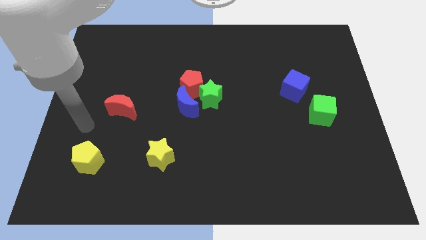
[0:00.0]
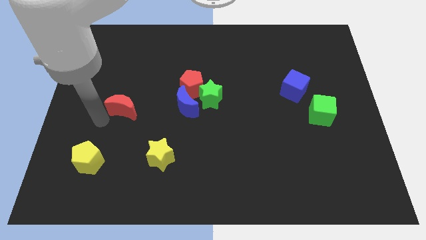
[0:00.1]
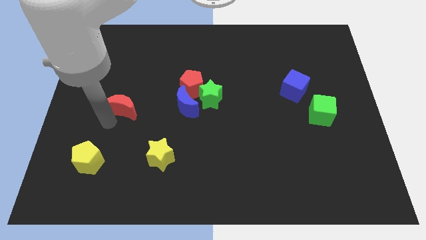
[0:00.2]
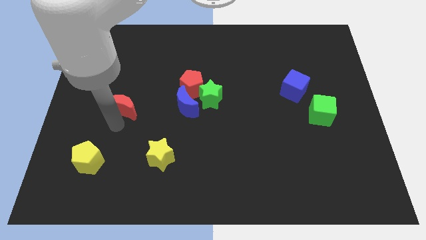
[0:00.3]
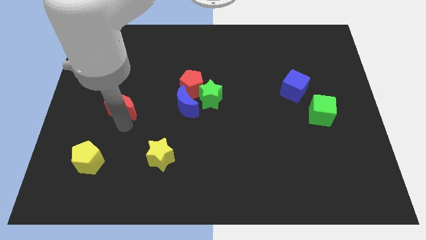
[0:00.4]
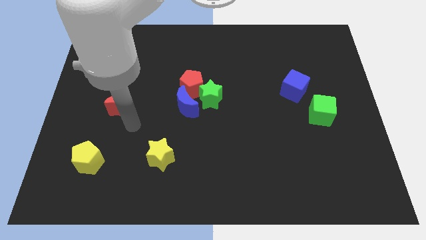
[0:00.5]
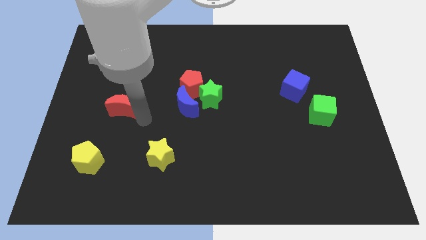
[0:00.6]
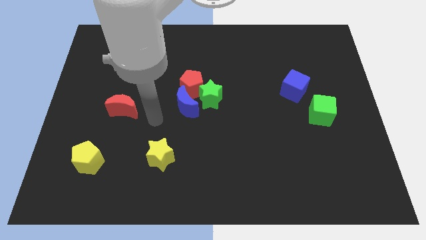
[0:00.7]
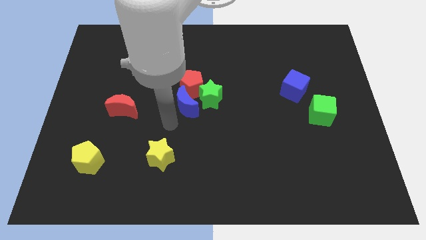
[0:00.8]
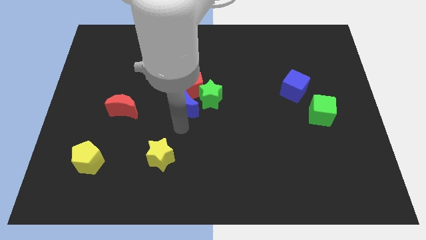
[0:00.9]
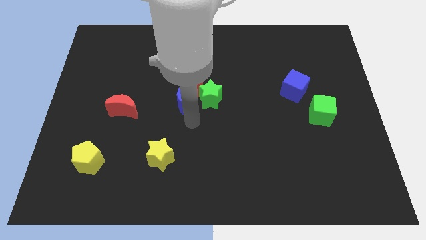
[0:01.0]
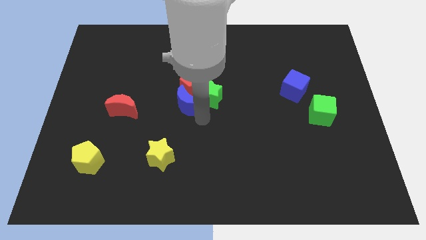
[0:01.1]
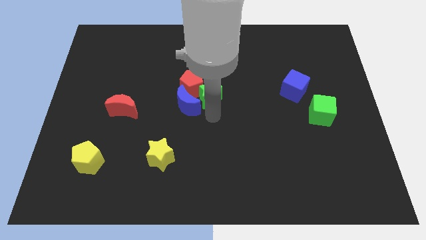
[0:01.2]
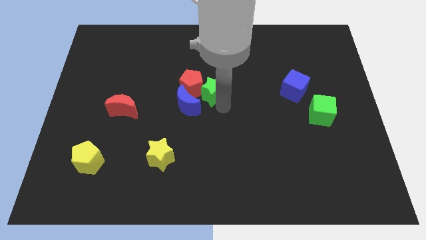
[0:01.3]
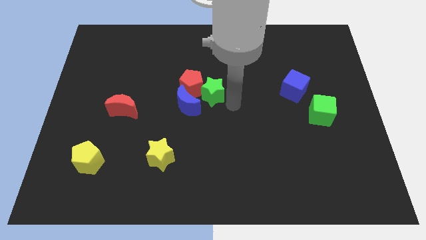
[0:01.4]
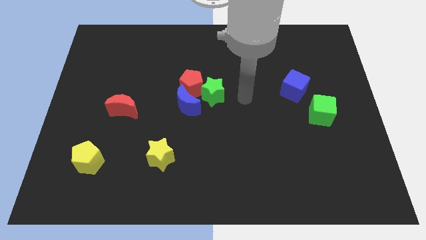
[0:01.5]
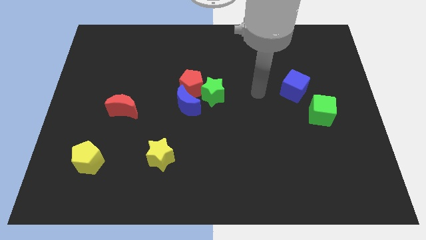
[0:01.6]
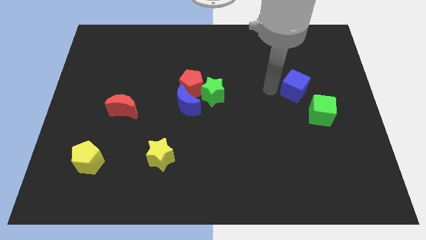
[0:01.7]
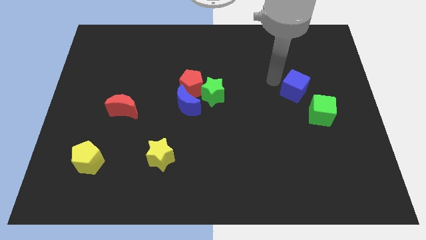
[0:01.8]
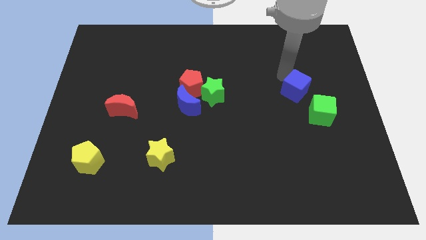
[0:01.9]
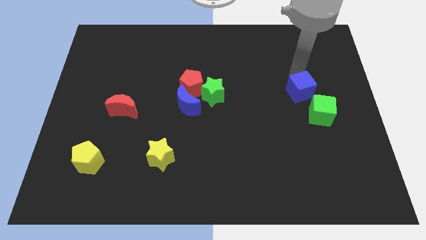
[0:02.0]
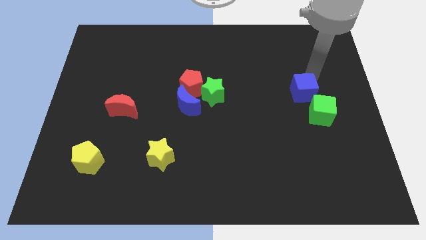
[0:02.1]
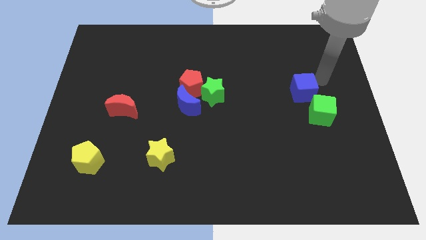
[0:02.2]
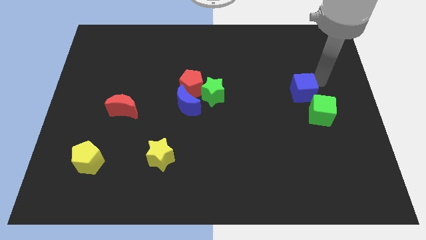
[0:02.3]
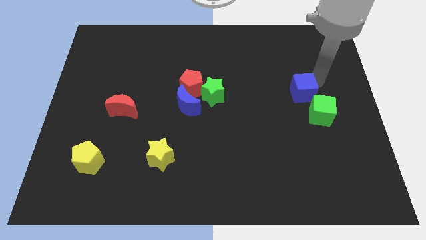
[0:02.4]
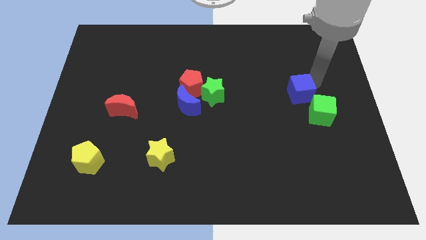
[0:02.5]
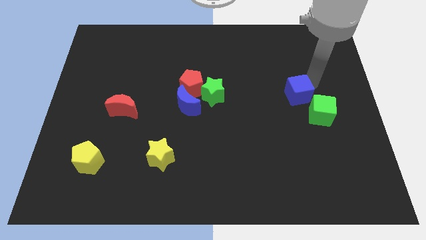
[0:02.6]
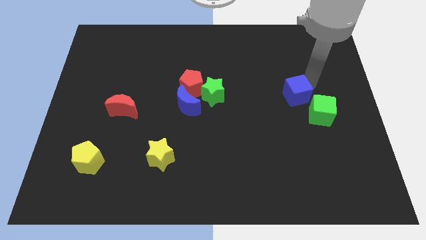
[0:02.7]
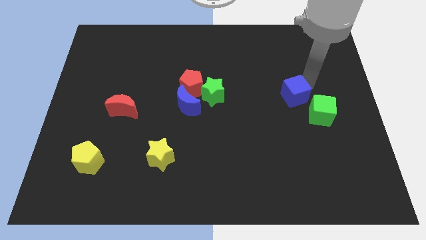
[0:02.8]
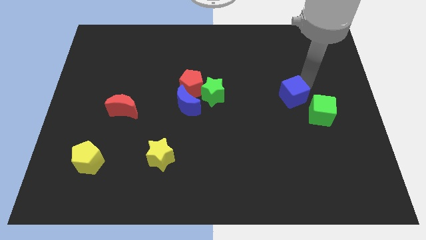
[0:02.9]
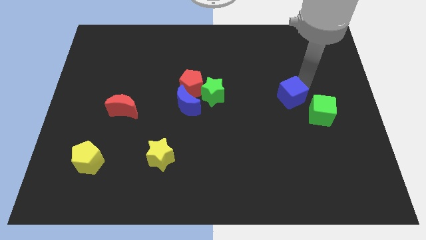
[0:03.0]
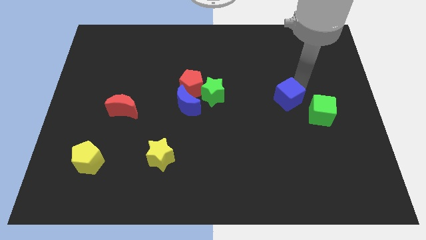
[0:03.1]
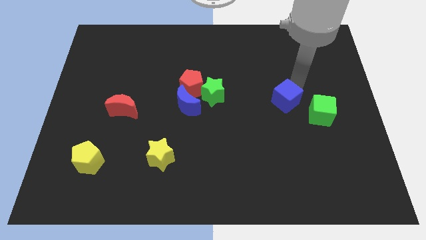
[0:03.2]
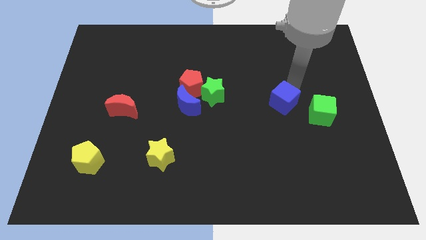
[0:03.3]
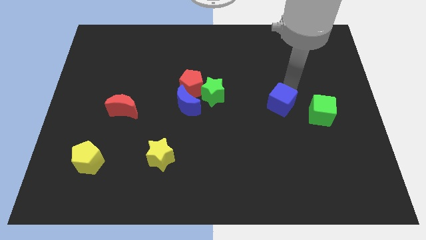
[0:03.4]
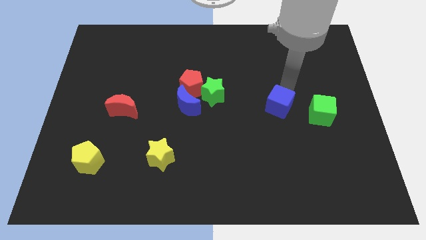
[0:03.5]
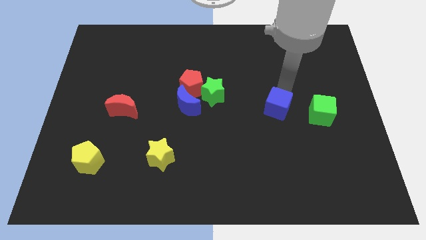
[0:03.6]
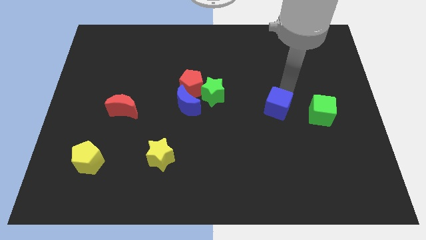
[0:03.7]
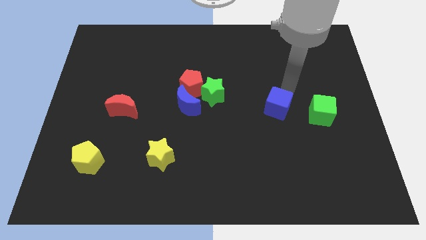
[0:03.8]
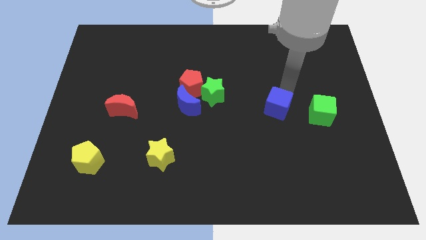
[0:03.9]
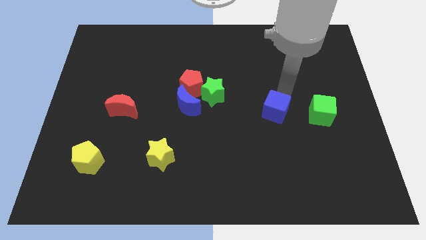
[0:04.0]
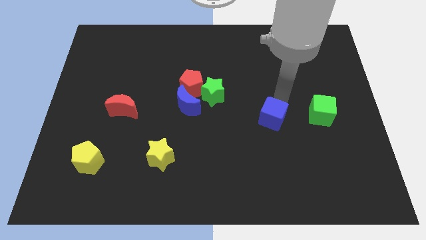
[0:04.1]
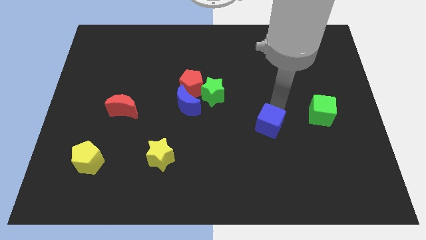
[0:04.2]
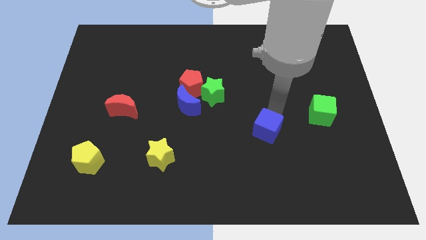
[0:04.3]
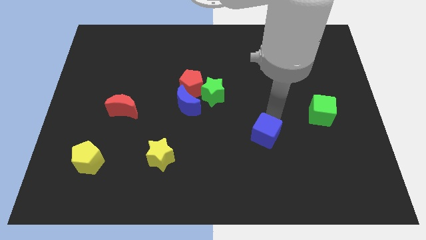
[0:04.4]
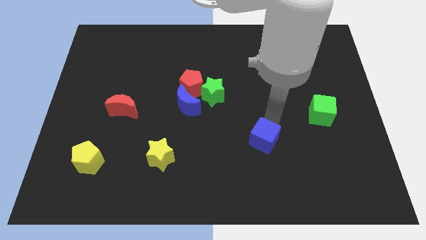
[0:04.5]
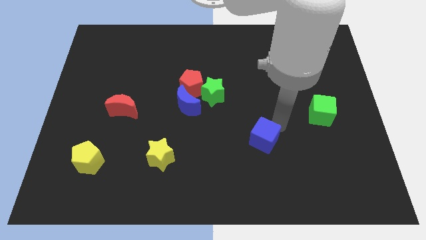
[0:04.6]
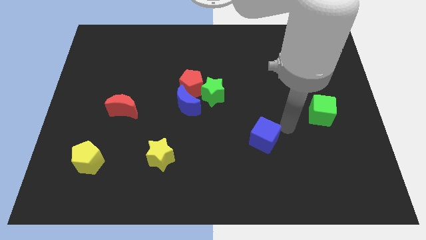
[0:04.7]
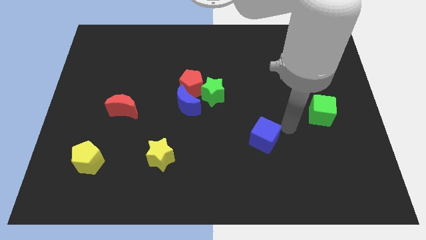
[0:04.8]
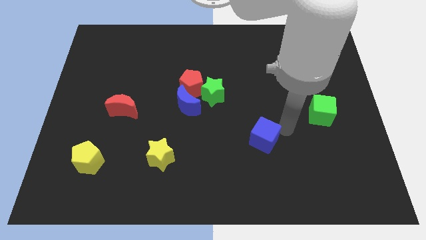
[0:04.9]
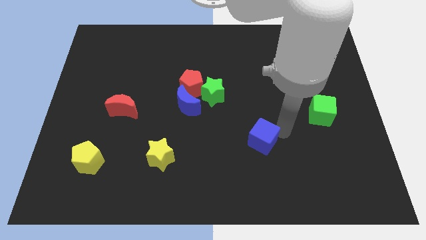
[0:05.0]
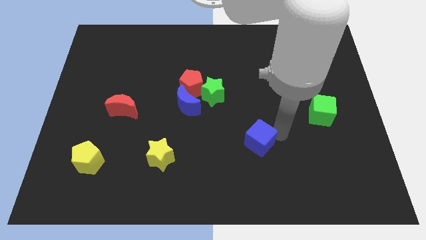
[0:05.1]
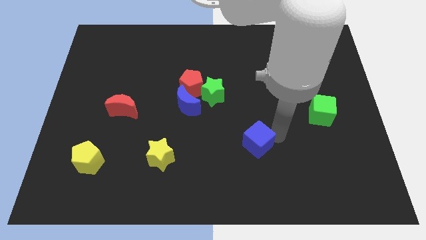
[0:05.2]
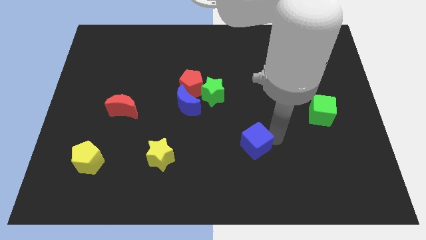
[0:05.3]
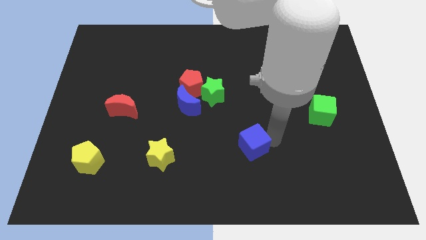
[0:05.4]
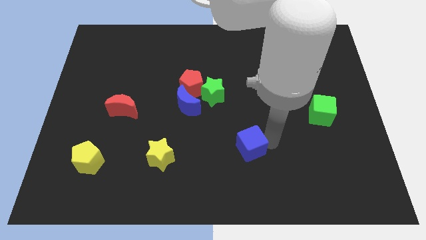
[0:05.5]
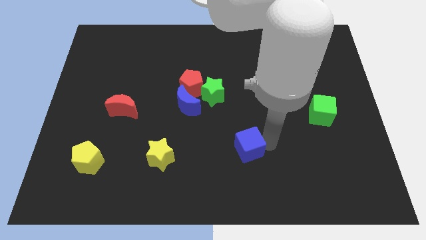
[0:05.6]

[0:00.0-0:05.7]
push the blue cube downwards and then left

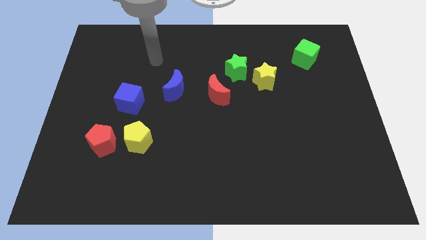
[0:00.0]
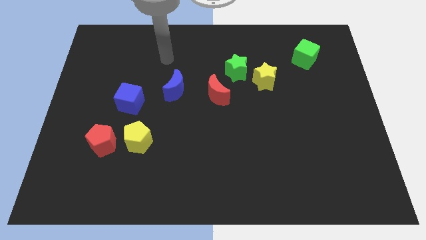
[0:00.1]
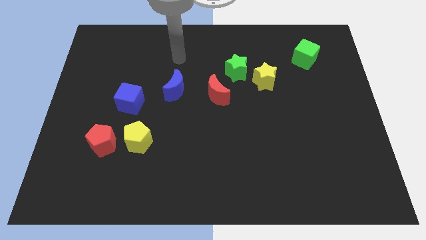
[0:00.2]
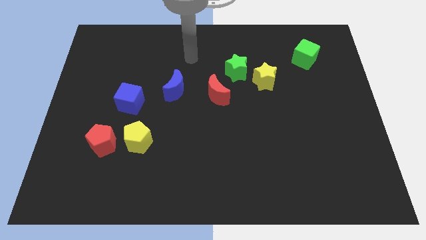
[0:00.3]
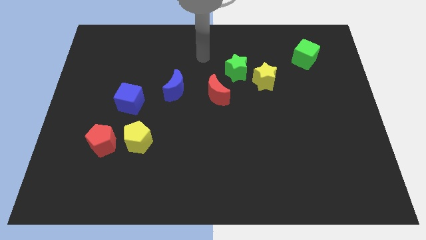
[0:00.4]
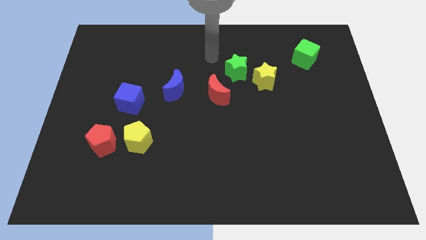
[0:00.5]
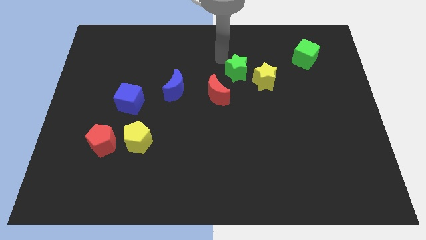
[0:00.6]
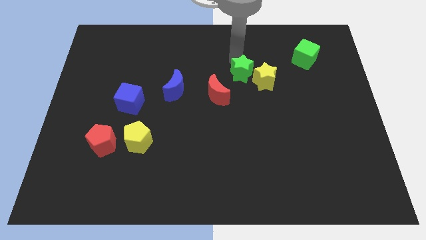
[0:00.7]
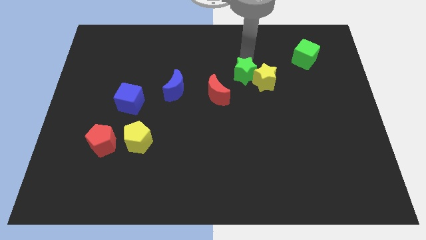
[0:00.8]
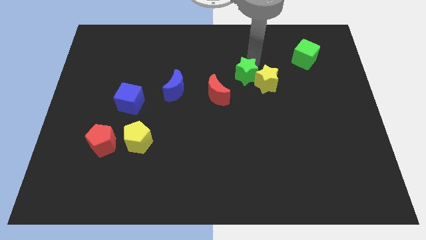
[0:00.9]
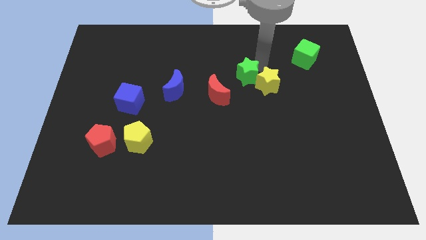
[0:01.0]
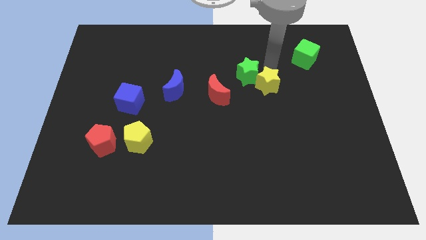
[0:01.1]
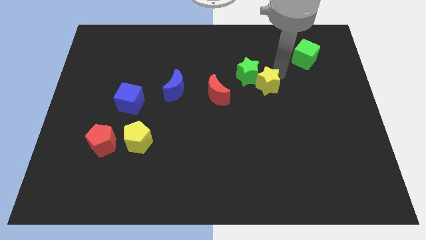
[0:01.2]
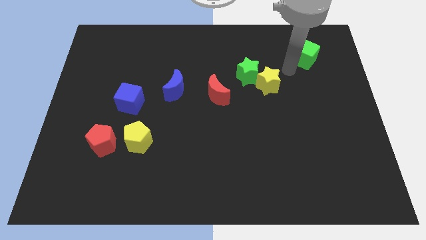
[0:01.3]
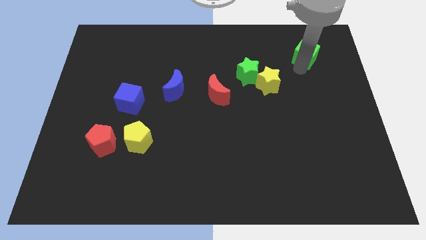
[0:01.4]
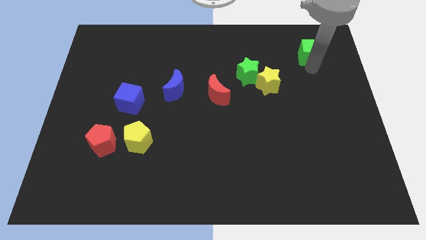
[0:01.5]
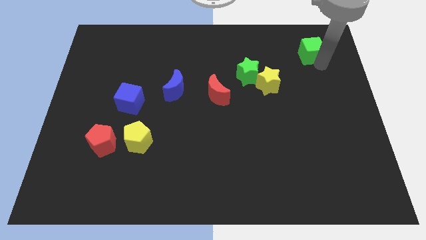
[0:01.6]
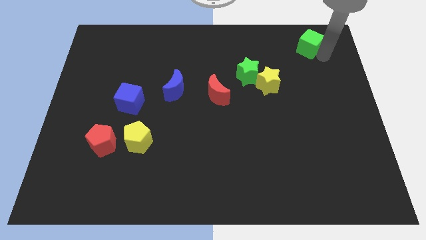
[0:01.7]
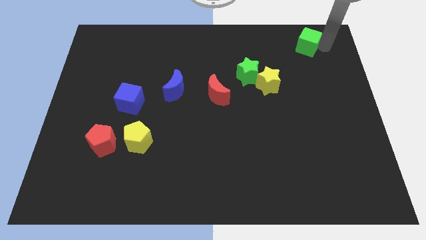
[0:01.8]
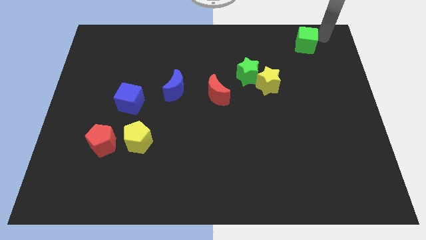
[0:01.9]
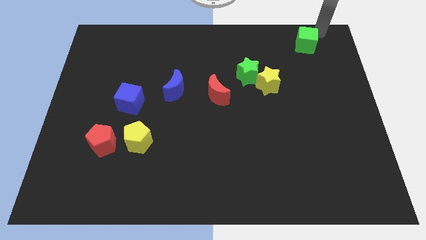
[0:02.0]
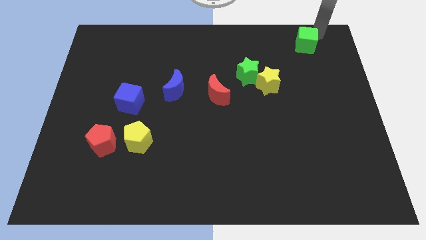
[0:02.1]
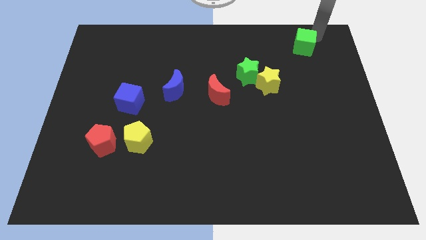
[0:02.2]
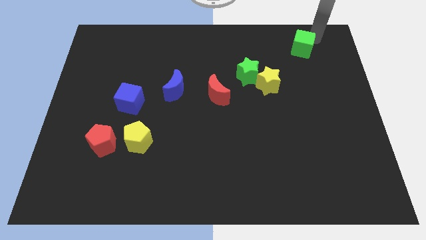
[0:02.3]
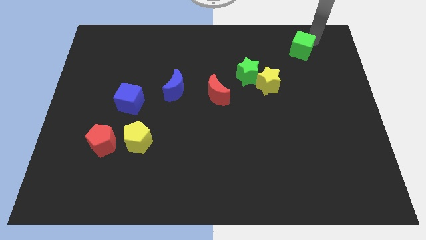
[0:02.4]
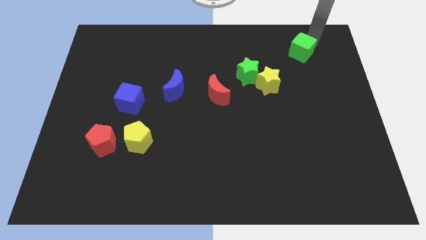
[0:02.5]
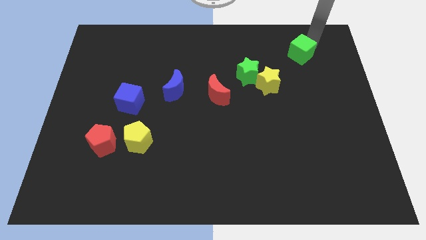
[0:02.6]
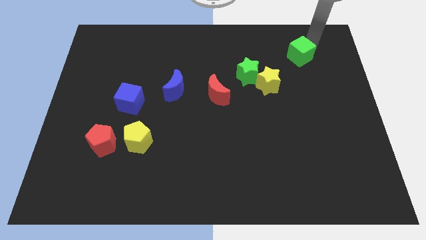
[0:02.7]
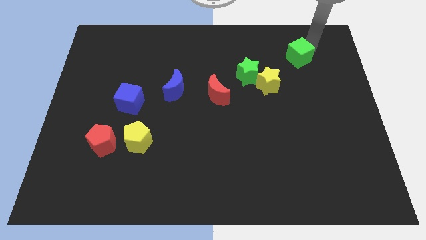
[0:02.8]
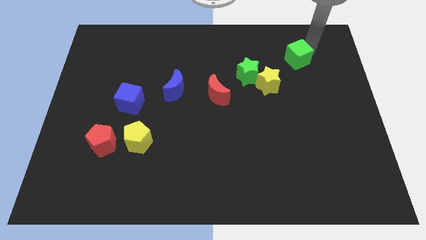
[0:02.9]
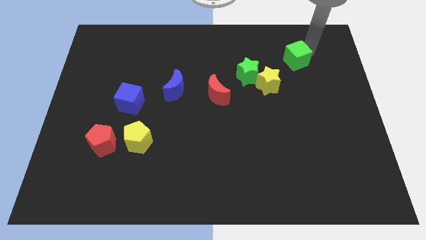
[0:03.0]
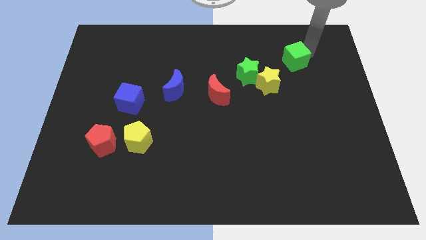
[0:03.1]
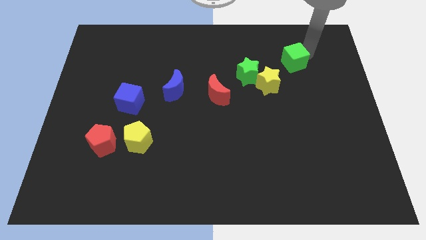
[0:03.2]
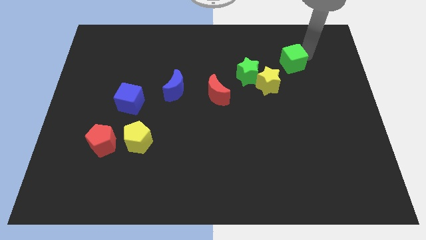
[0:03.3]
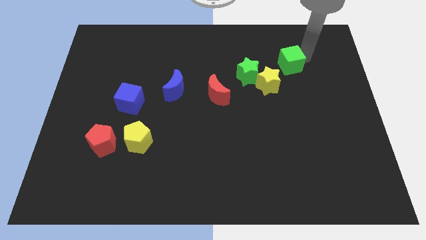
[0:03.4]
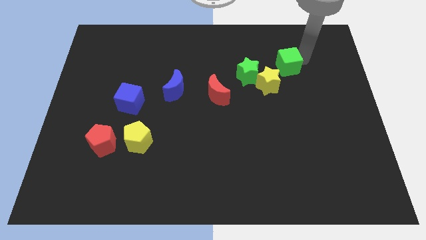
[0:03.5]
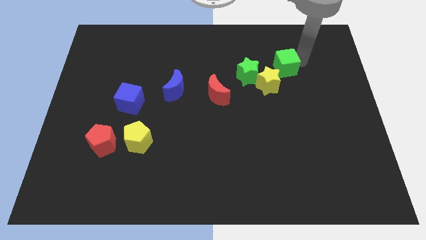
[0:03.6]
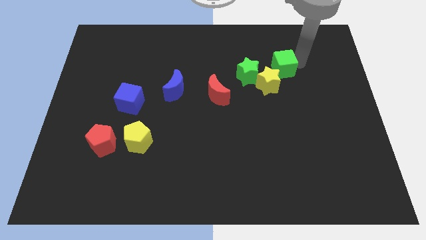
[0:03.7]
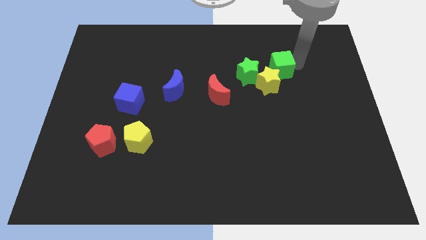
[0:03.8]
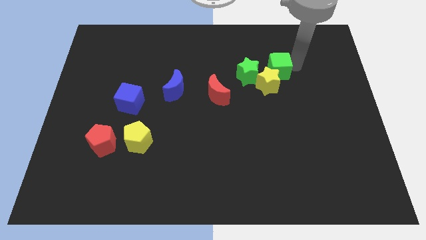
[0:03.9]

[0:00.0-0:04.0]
slightly slide the green cube left
